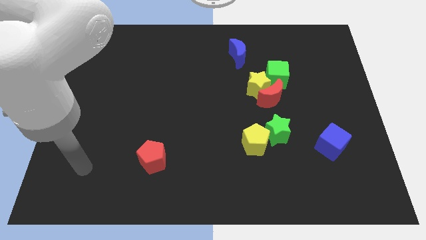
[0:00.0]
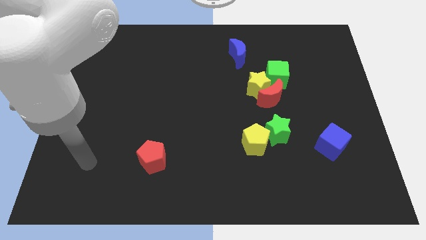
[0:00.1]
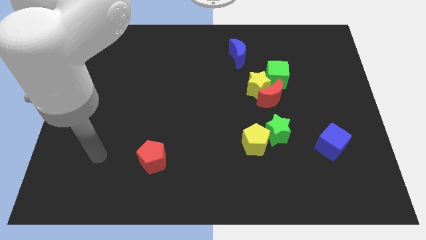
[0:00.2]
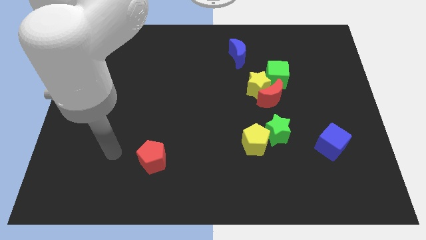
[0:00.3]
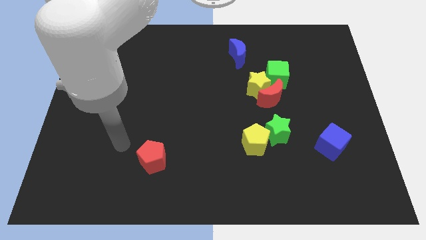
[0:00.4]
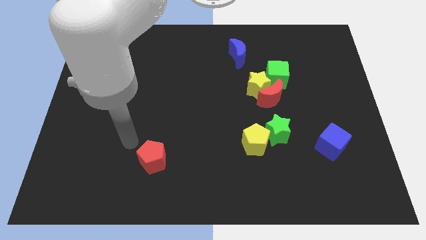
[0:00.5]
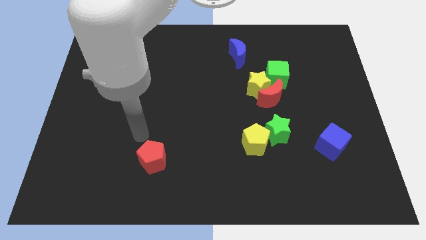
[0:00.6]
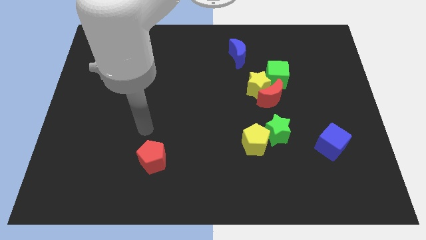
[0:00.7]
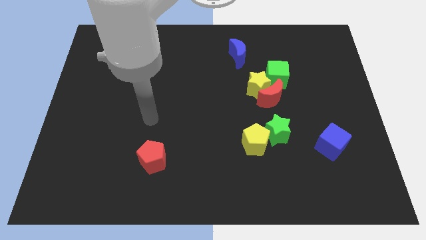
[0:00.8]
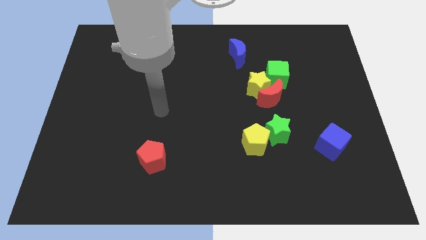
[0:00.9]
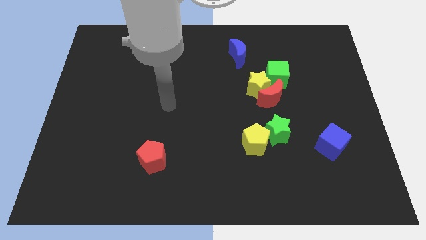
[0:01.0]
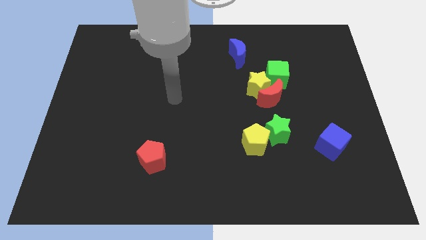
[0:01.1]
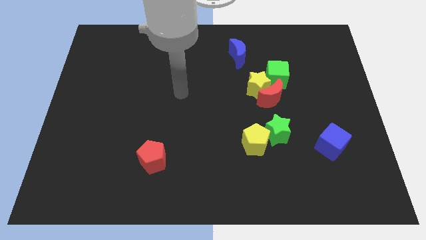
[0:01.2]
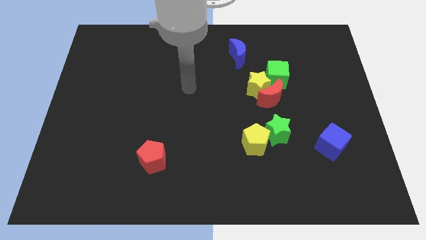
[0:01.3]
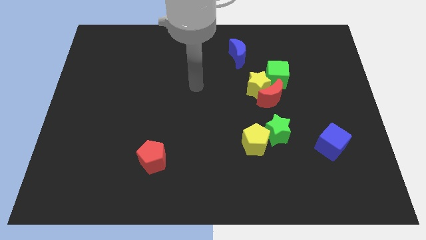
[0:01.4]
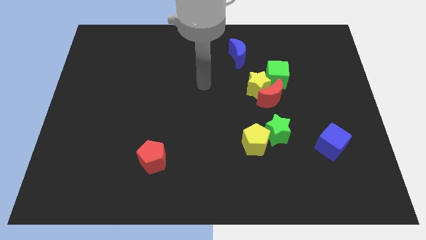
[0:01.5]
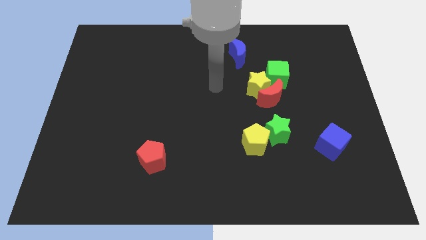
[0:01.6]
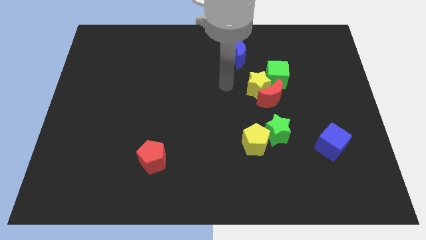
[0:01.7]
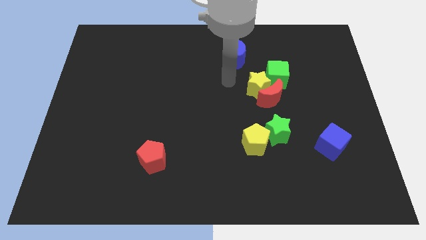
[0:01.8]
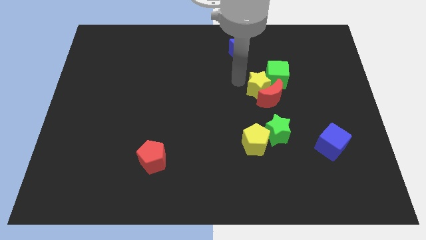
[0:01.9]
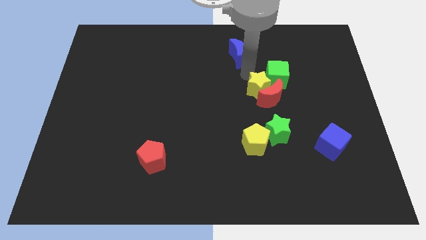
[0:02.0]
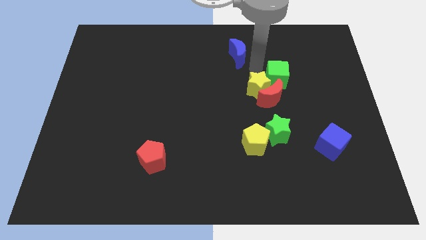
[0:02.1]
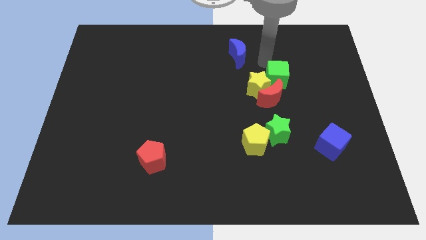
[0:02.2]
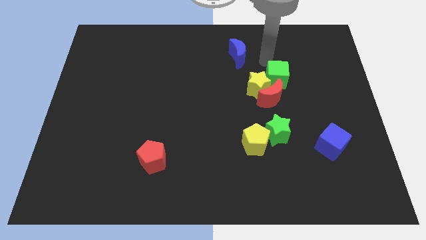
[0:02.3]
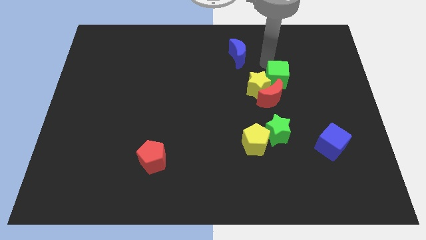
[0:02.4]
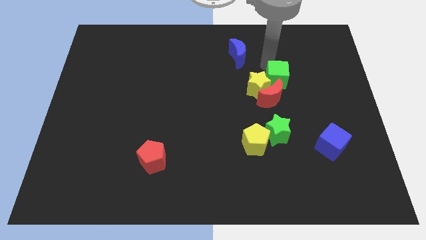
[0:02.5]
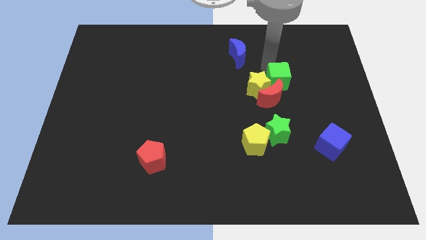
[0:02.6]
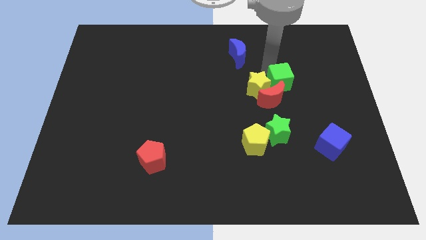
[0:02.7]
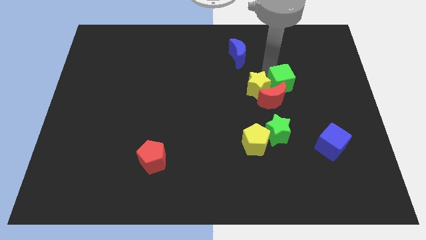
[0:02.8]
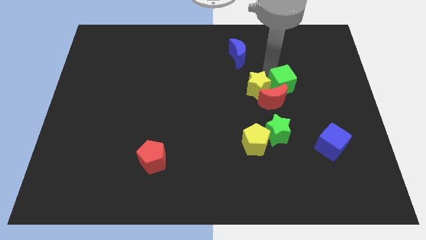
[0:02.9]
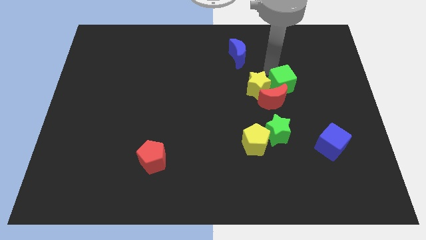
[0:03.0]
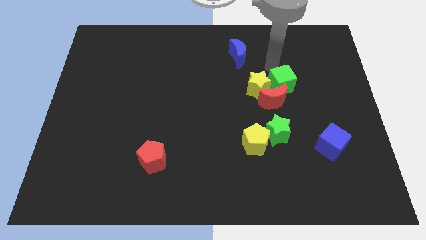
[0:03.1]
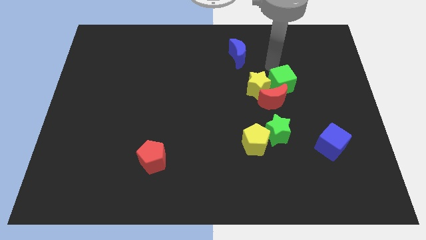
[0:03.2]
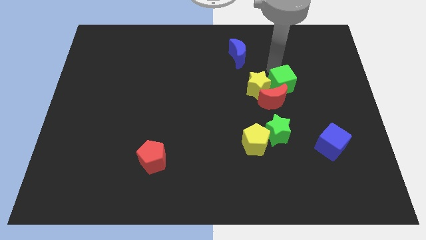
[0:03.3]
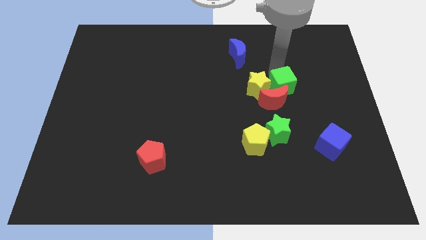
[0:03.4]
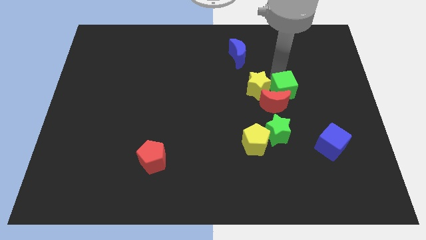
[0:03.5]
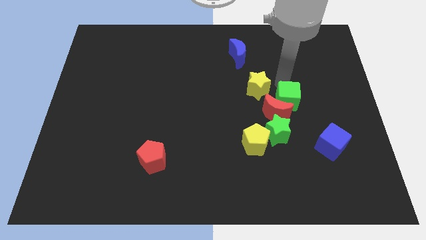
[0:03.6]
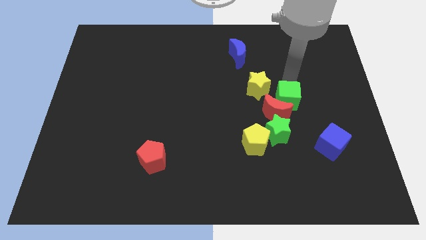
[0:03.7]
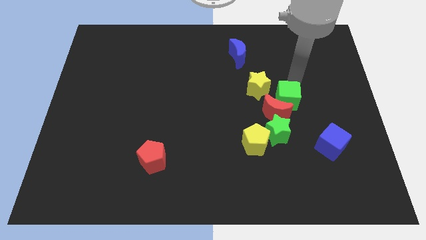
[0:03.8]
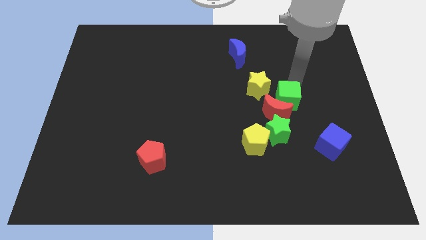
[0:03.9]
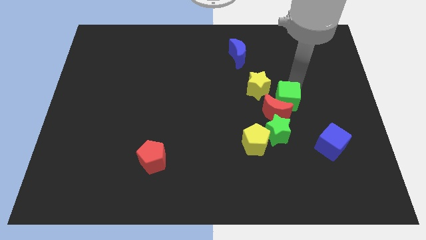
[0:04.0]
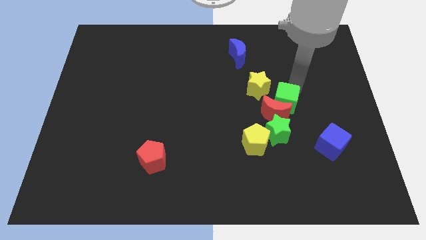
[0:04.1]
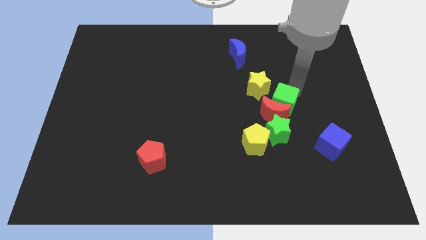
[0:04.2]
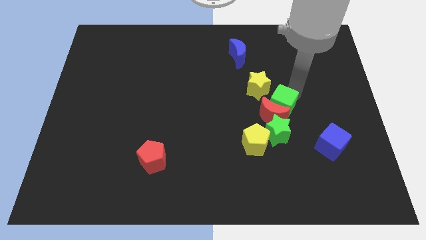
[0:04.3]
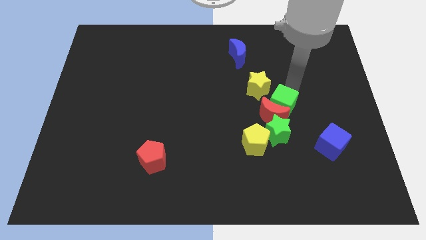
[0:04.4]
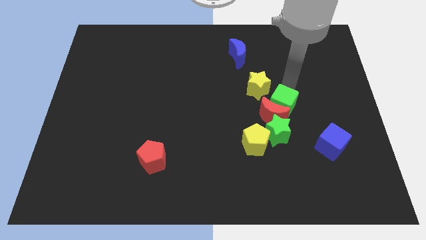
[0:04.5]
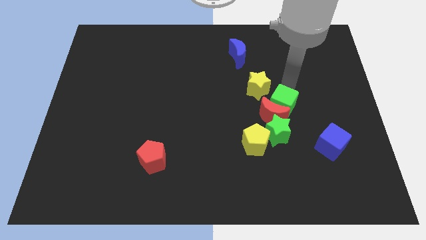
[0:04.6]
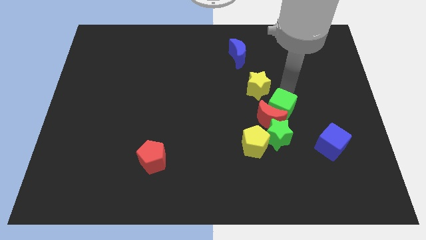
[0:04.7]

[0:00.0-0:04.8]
move the green cube diagonally up and to the right of the yellow pentagon

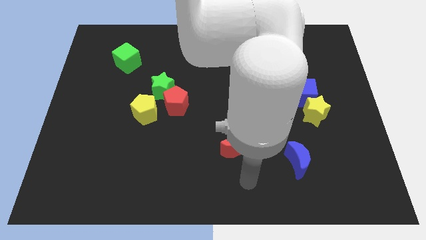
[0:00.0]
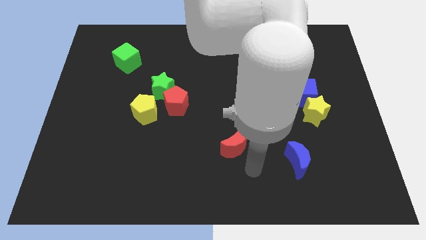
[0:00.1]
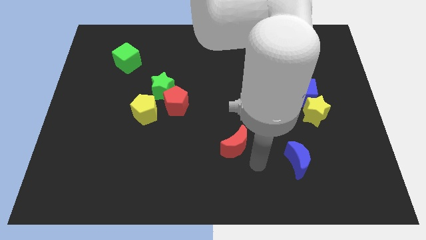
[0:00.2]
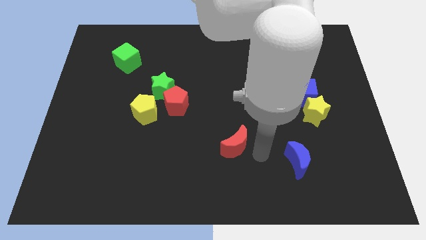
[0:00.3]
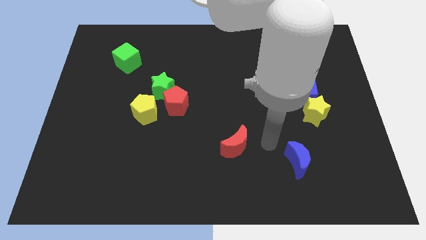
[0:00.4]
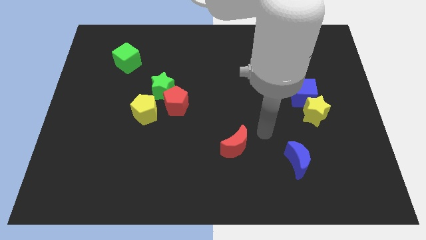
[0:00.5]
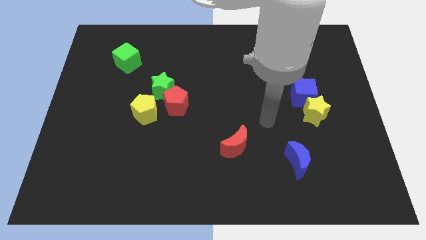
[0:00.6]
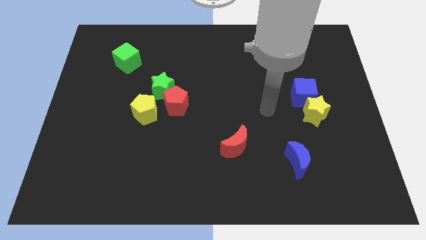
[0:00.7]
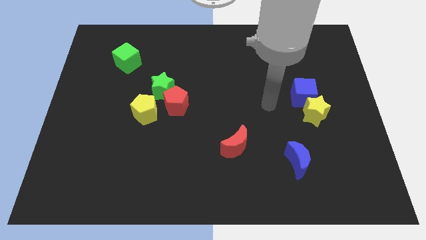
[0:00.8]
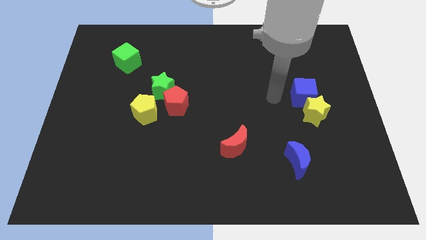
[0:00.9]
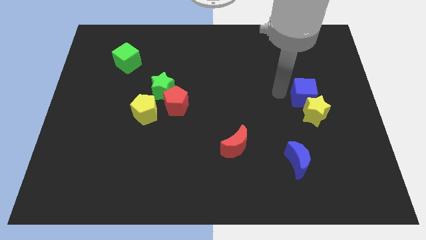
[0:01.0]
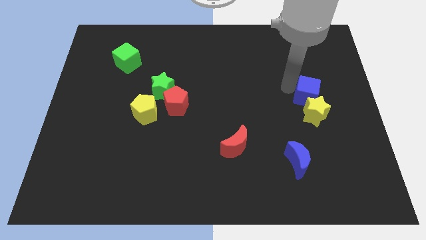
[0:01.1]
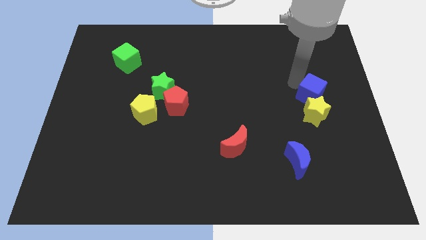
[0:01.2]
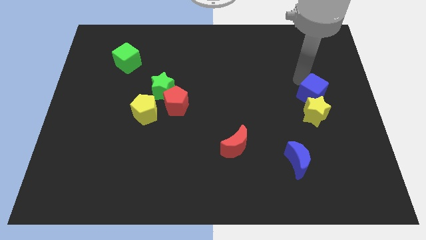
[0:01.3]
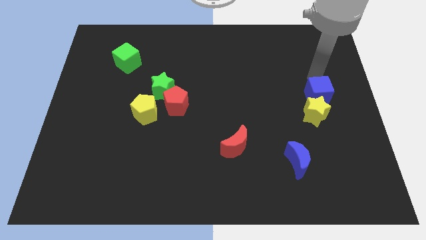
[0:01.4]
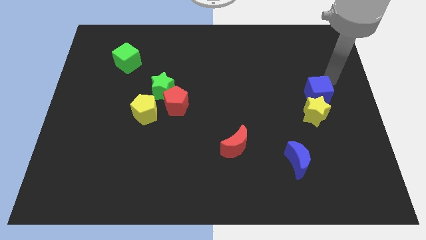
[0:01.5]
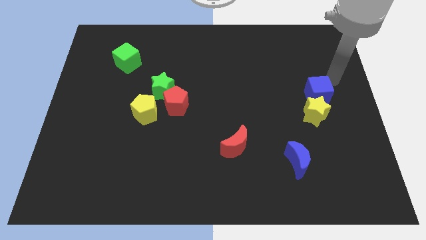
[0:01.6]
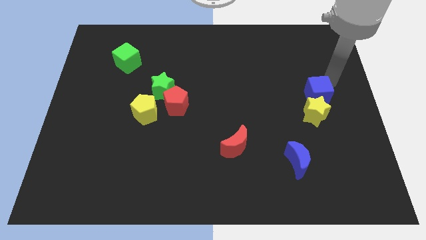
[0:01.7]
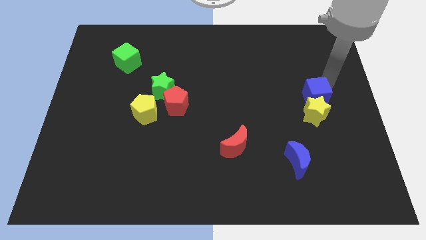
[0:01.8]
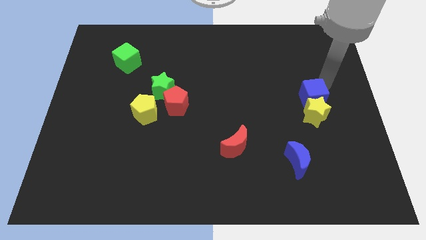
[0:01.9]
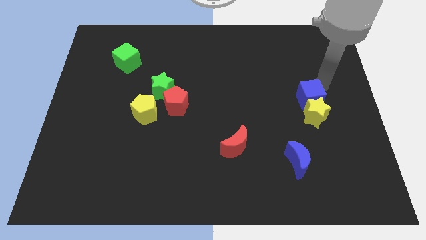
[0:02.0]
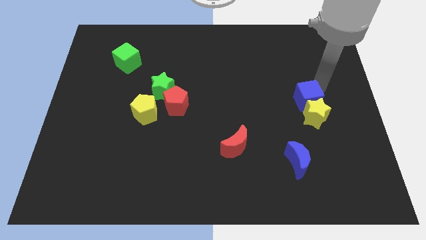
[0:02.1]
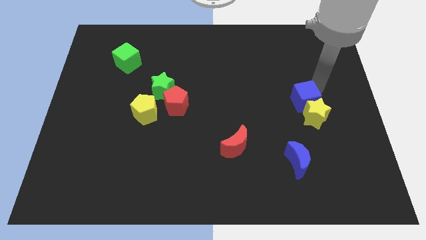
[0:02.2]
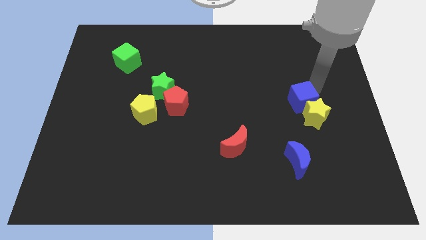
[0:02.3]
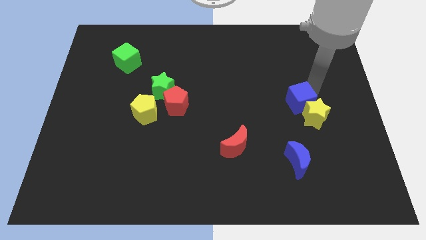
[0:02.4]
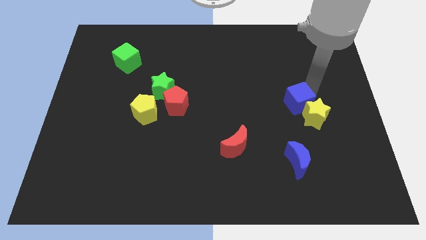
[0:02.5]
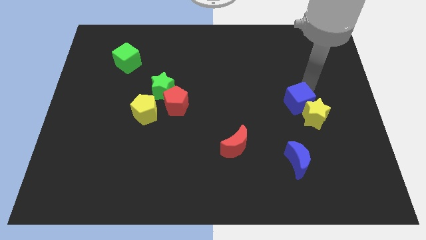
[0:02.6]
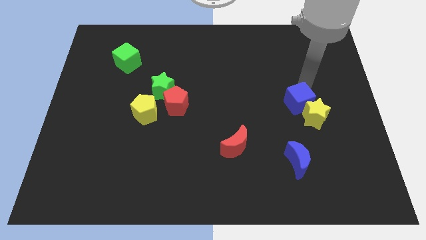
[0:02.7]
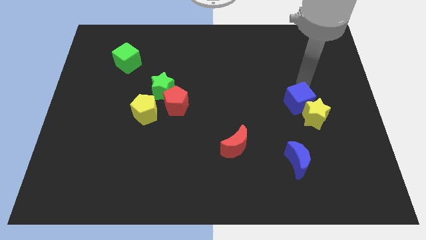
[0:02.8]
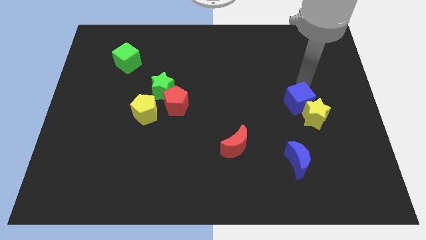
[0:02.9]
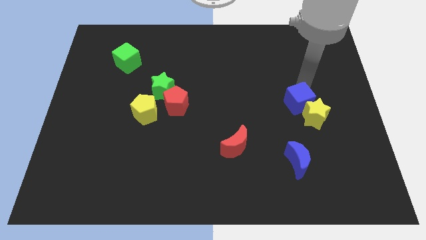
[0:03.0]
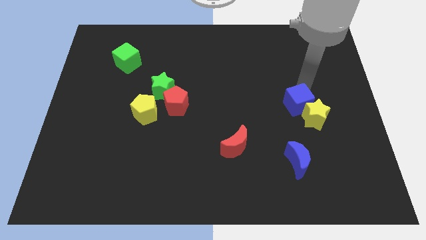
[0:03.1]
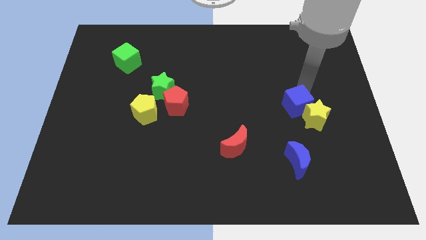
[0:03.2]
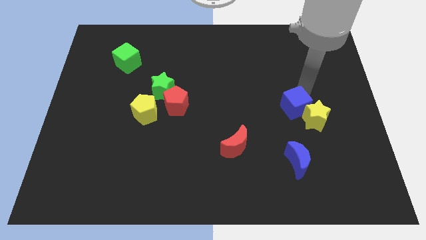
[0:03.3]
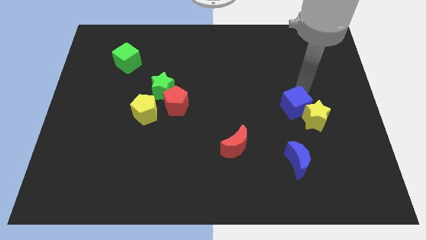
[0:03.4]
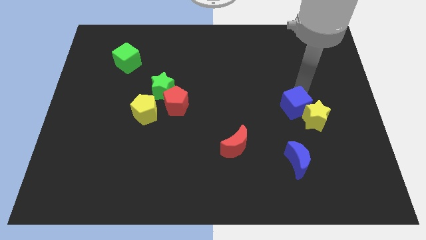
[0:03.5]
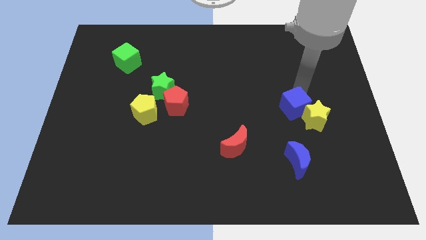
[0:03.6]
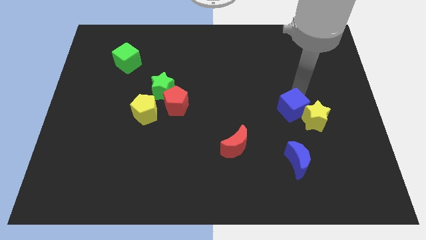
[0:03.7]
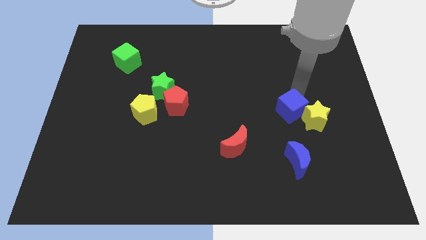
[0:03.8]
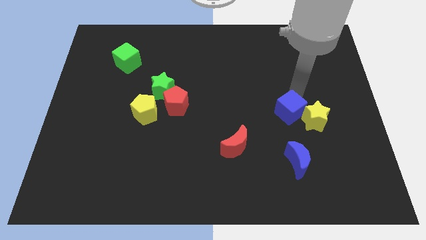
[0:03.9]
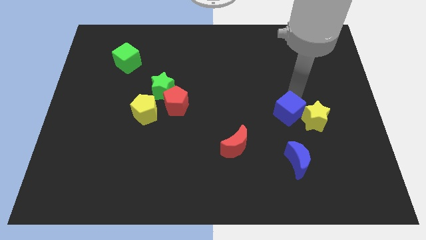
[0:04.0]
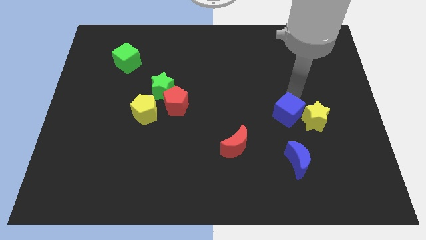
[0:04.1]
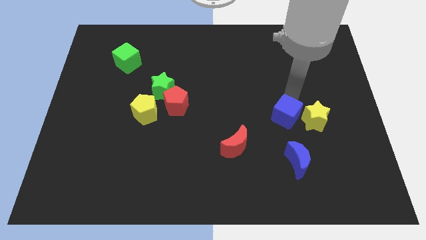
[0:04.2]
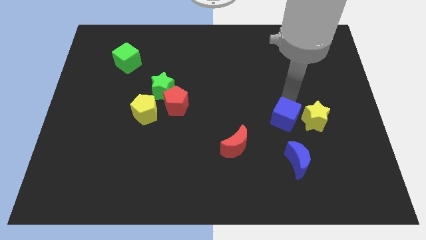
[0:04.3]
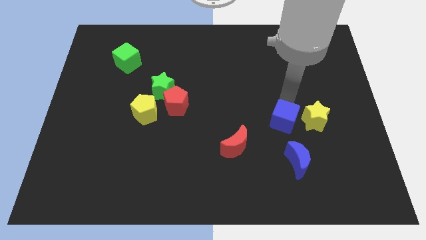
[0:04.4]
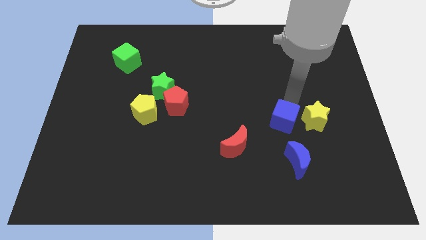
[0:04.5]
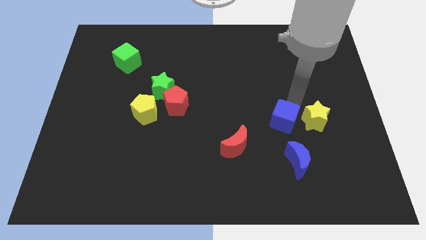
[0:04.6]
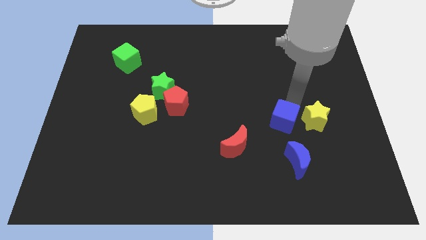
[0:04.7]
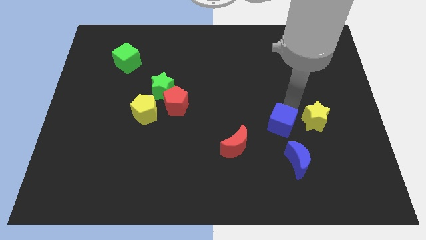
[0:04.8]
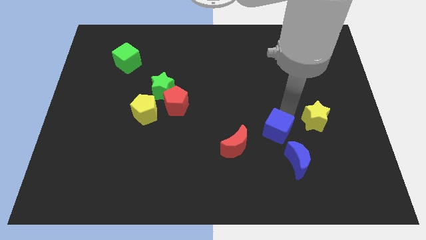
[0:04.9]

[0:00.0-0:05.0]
push the blue cube diagonally up and to the left of the blue moon
